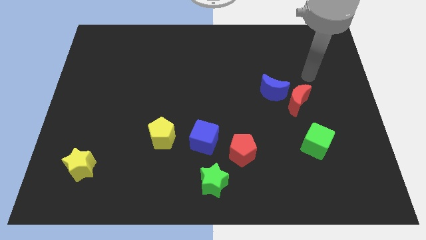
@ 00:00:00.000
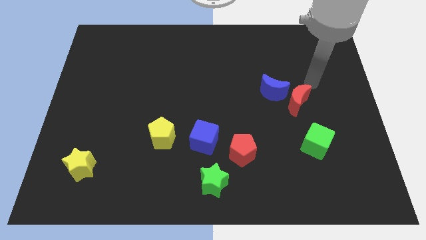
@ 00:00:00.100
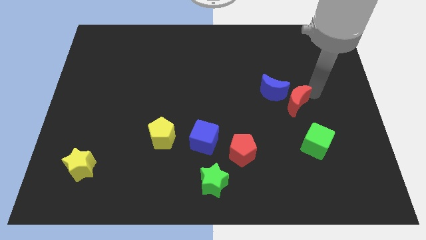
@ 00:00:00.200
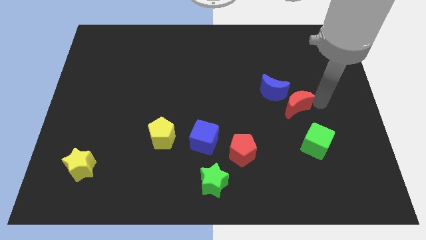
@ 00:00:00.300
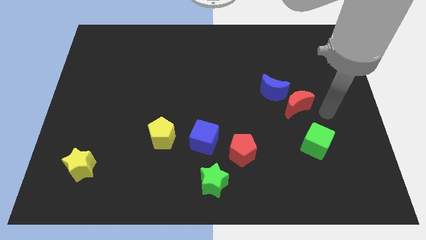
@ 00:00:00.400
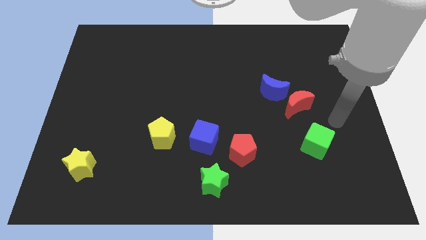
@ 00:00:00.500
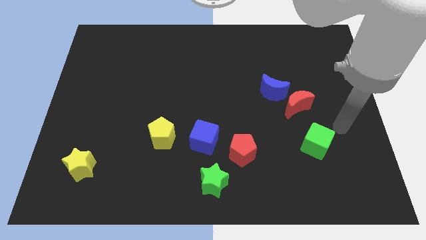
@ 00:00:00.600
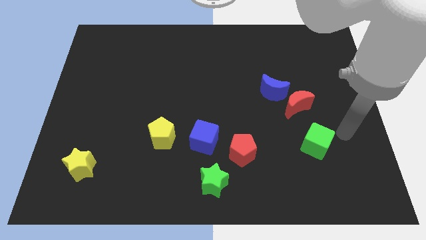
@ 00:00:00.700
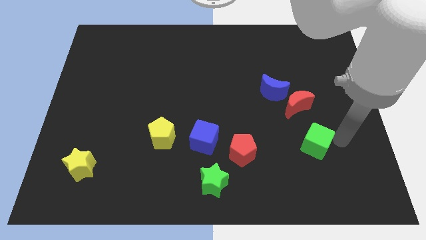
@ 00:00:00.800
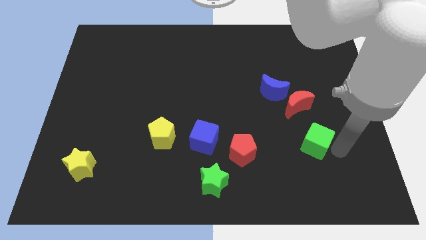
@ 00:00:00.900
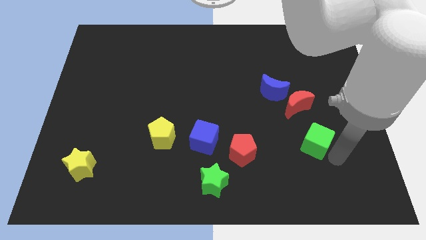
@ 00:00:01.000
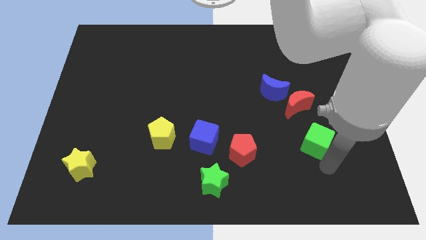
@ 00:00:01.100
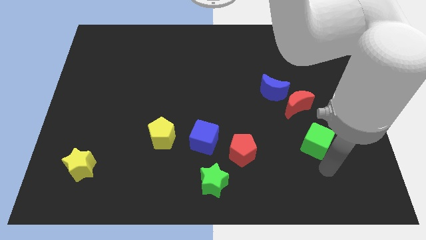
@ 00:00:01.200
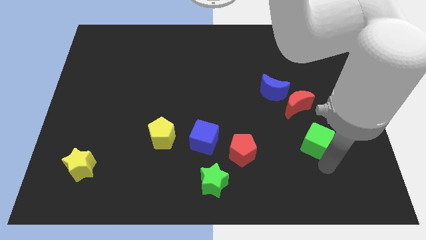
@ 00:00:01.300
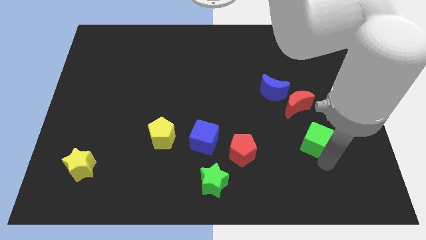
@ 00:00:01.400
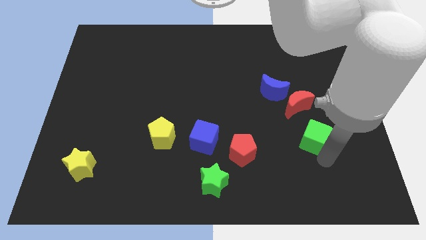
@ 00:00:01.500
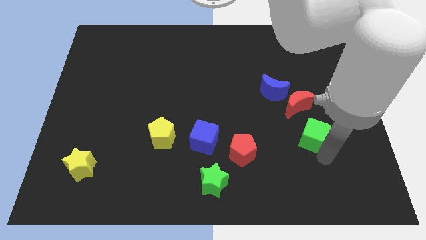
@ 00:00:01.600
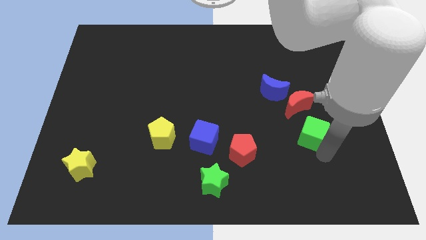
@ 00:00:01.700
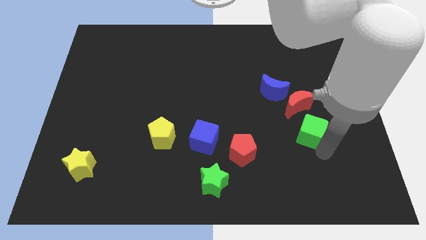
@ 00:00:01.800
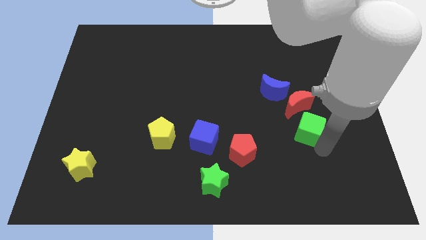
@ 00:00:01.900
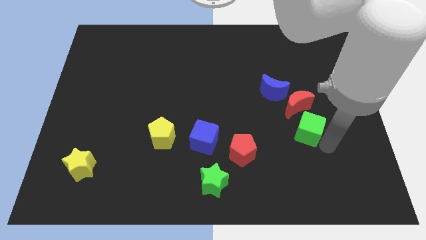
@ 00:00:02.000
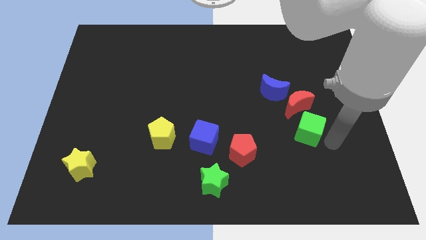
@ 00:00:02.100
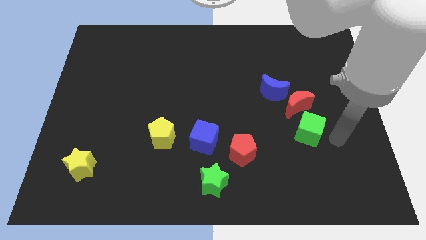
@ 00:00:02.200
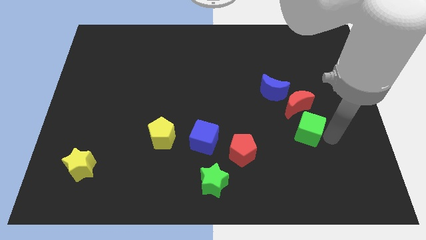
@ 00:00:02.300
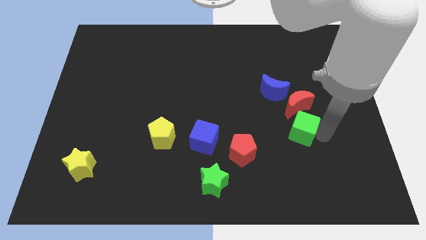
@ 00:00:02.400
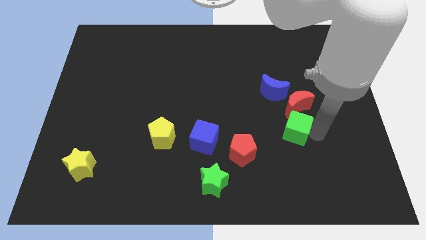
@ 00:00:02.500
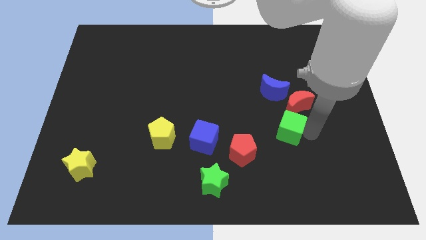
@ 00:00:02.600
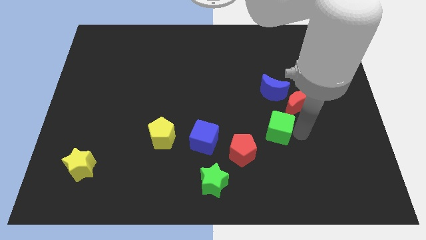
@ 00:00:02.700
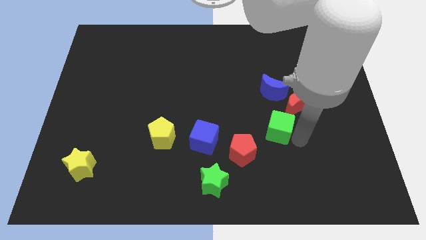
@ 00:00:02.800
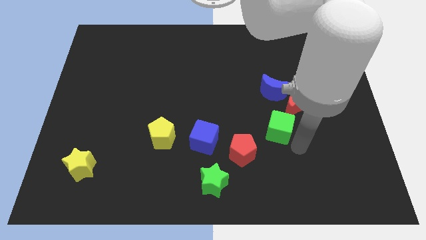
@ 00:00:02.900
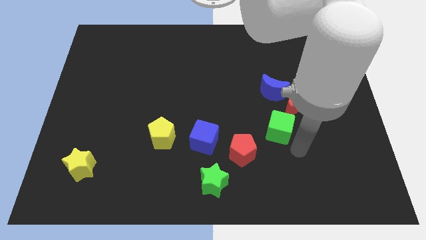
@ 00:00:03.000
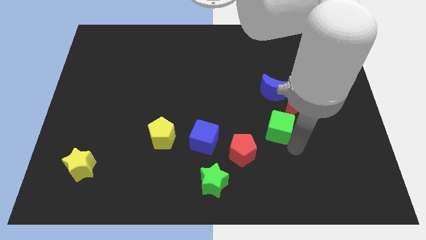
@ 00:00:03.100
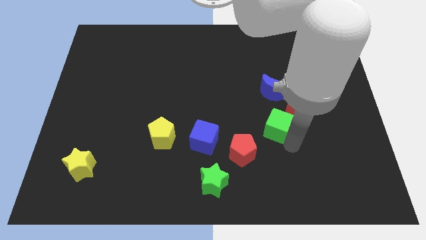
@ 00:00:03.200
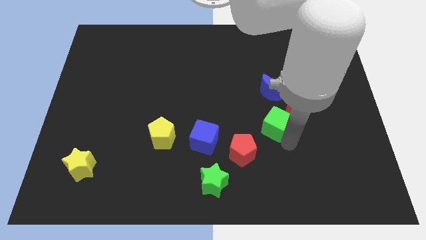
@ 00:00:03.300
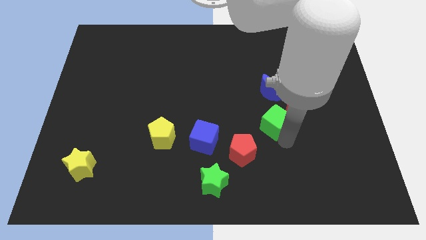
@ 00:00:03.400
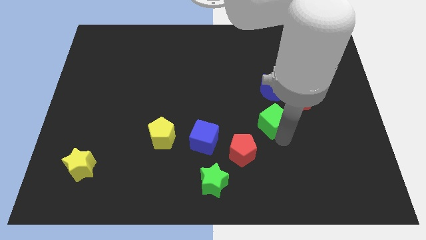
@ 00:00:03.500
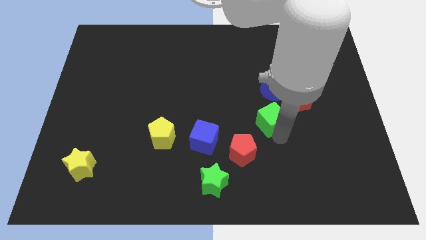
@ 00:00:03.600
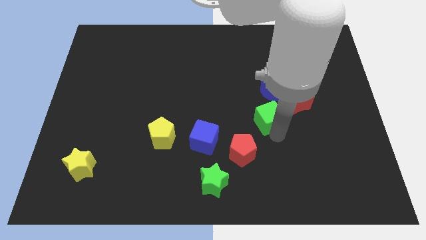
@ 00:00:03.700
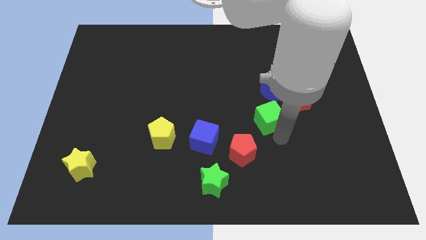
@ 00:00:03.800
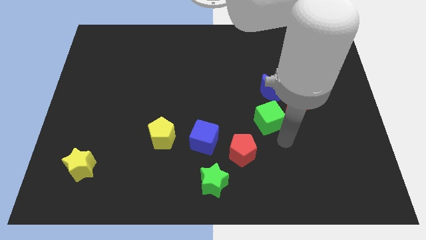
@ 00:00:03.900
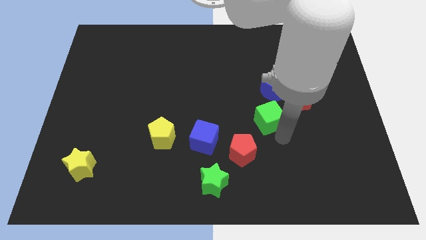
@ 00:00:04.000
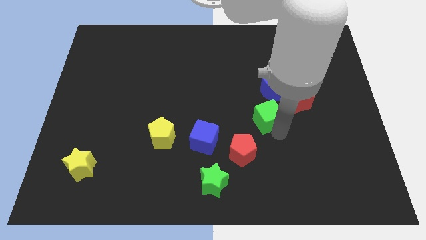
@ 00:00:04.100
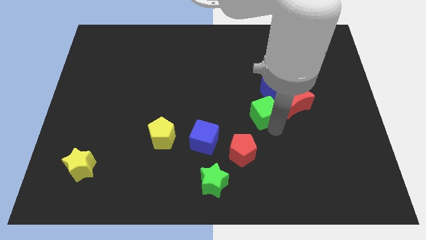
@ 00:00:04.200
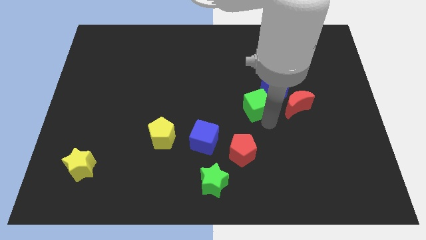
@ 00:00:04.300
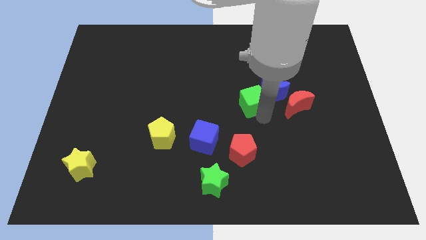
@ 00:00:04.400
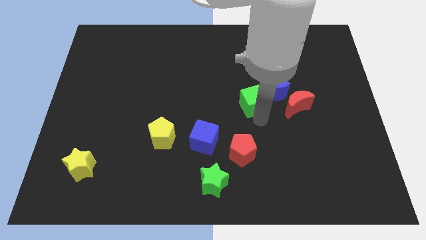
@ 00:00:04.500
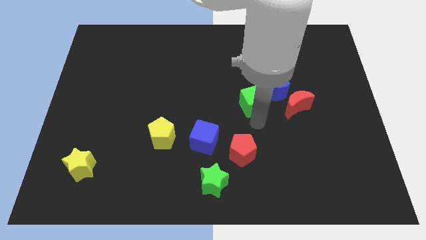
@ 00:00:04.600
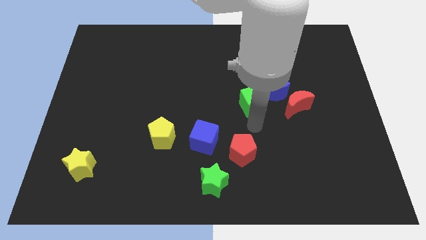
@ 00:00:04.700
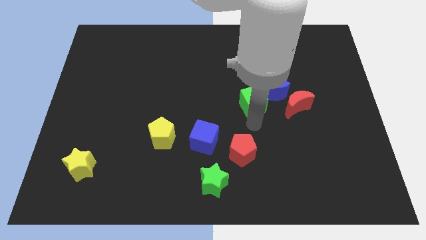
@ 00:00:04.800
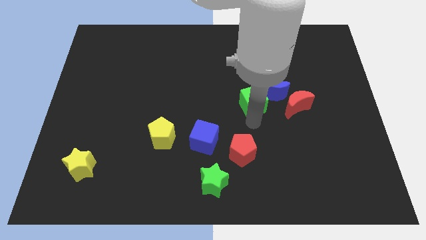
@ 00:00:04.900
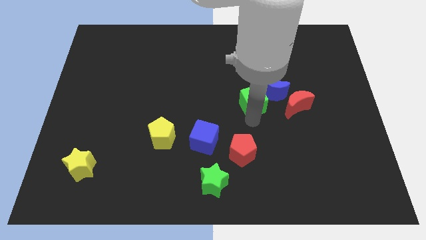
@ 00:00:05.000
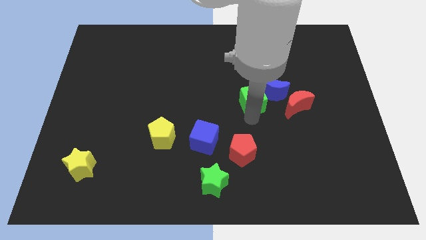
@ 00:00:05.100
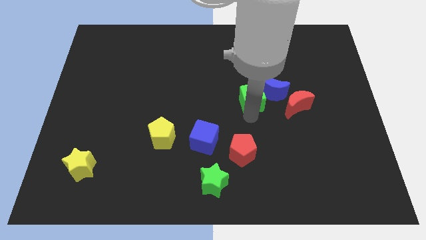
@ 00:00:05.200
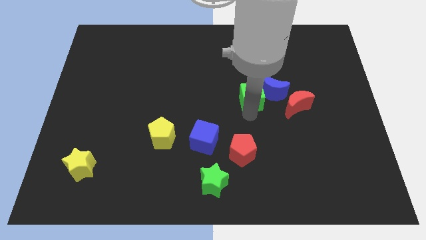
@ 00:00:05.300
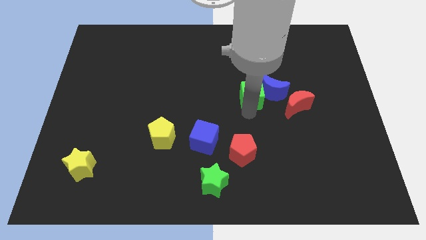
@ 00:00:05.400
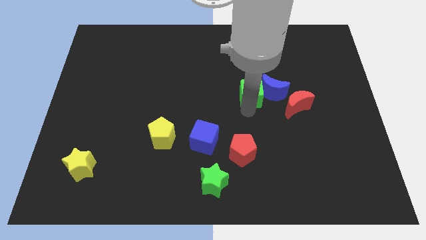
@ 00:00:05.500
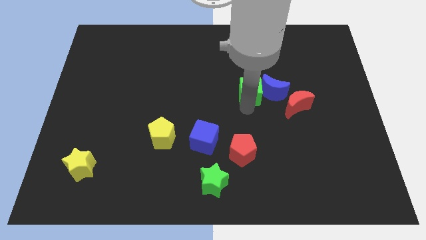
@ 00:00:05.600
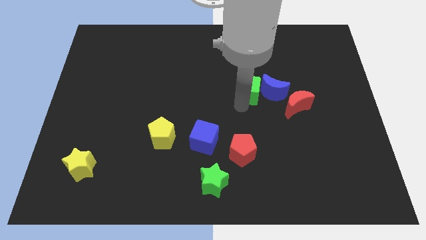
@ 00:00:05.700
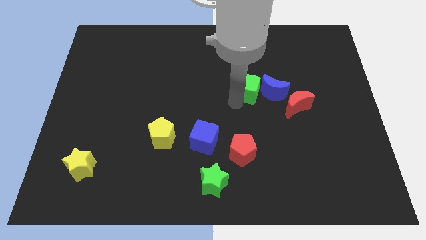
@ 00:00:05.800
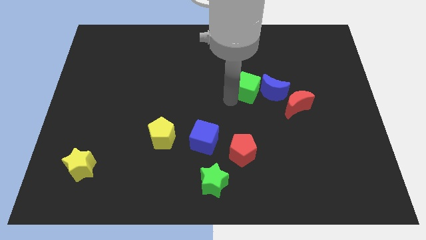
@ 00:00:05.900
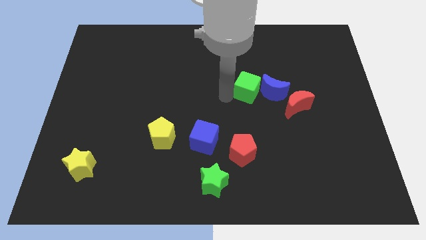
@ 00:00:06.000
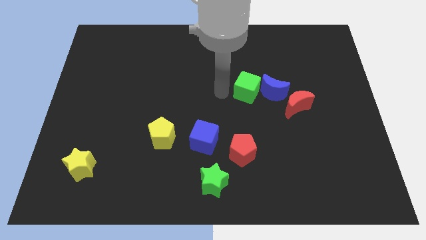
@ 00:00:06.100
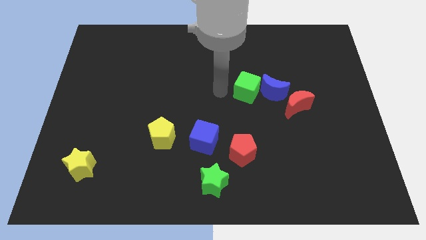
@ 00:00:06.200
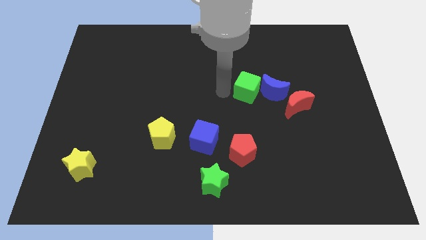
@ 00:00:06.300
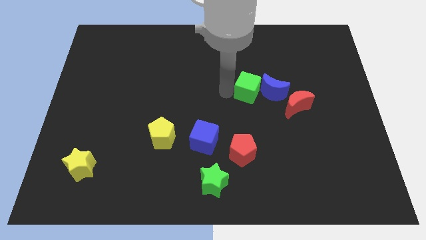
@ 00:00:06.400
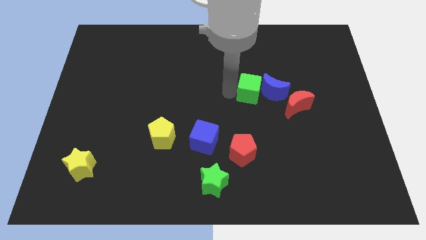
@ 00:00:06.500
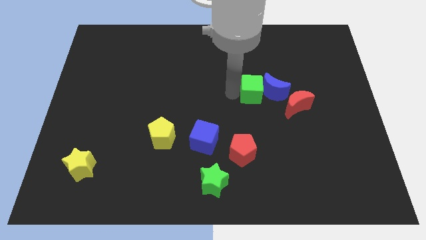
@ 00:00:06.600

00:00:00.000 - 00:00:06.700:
move the green cube to the top left of the red moon

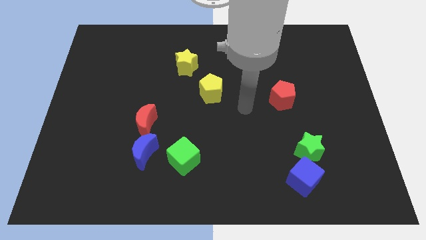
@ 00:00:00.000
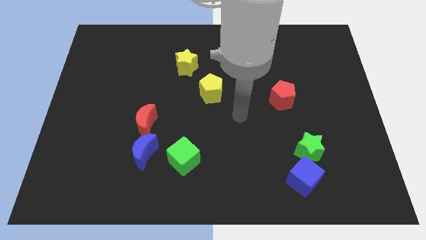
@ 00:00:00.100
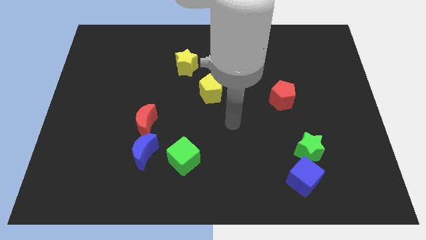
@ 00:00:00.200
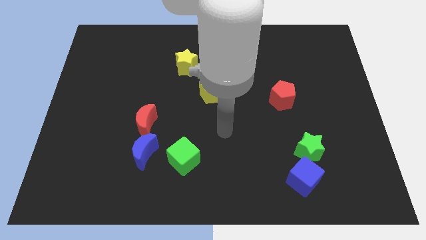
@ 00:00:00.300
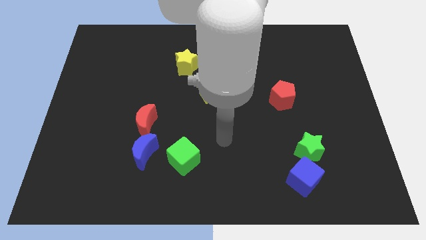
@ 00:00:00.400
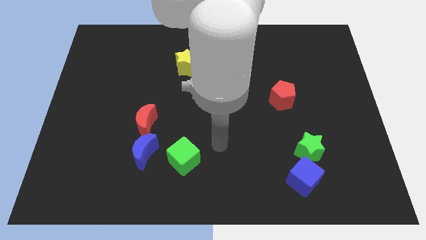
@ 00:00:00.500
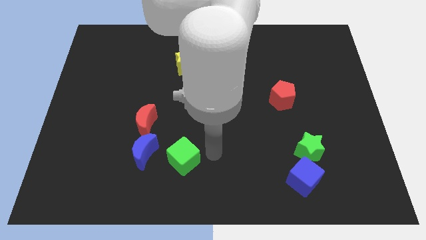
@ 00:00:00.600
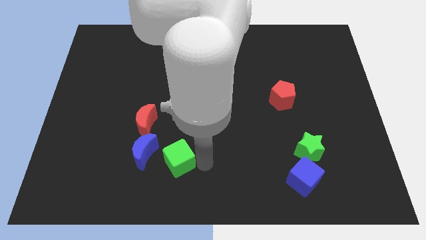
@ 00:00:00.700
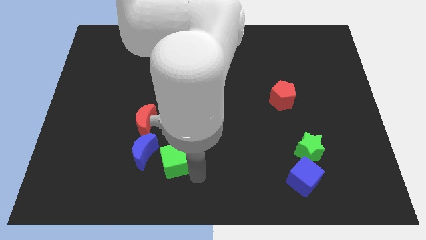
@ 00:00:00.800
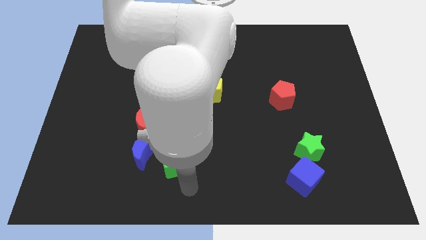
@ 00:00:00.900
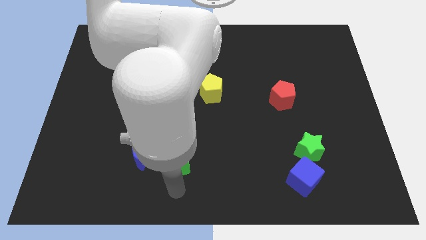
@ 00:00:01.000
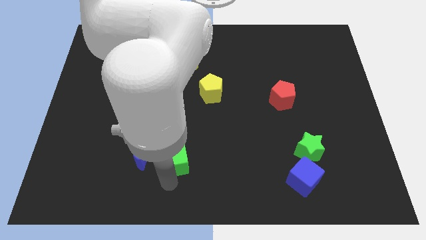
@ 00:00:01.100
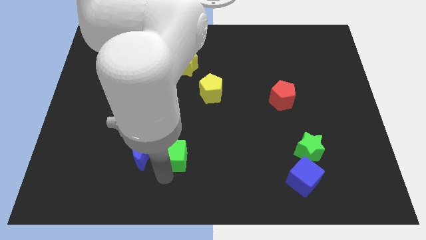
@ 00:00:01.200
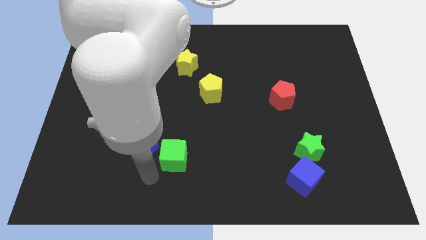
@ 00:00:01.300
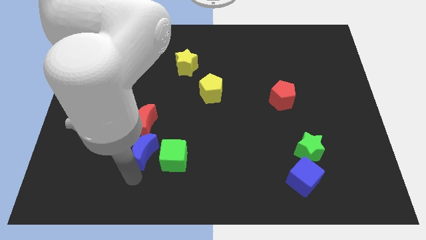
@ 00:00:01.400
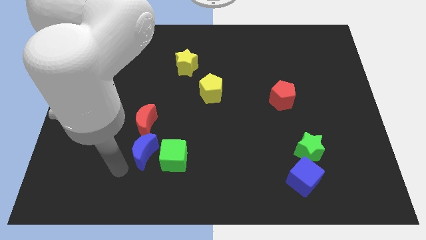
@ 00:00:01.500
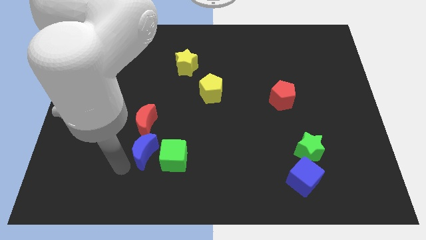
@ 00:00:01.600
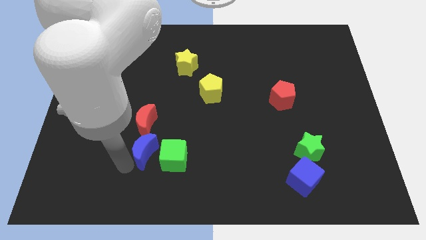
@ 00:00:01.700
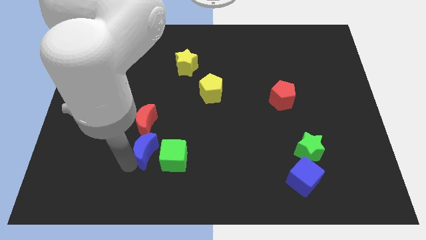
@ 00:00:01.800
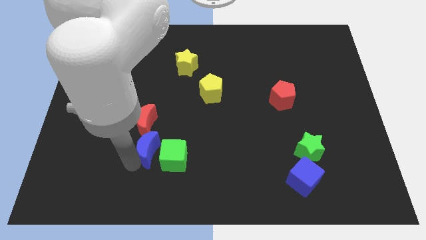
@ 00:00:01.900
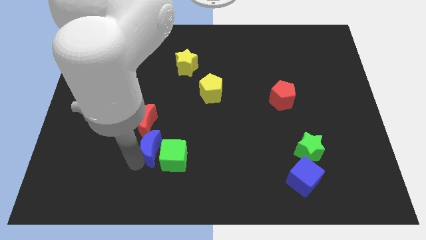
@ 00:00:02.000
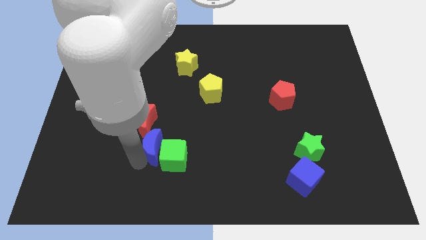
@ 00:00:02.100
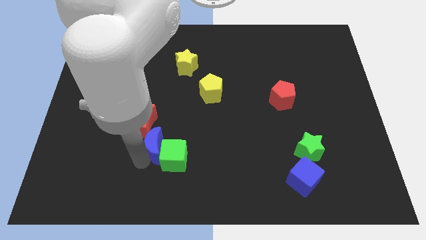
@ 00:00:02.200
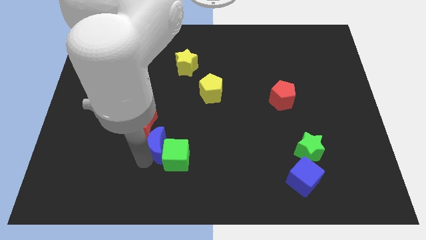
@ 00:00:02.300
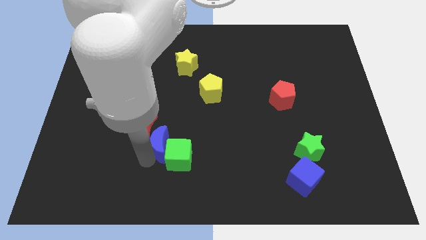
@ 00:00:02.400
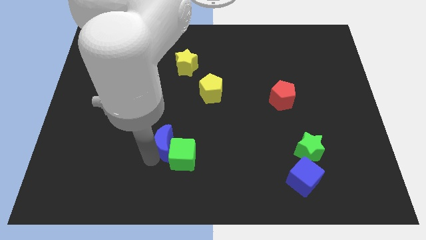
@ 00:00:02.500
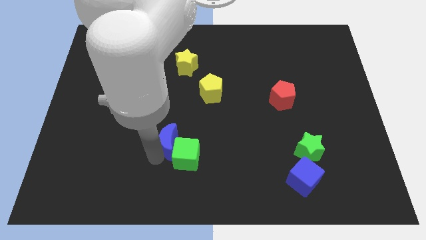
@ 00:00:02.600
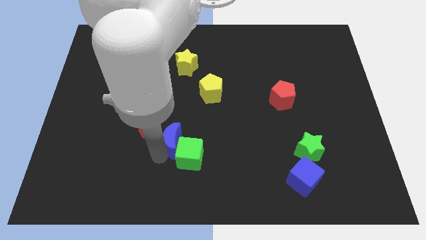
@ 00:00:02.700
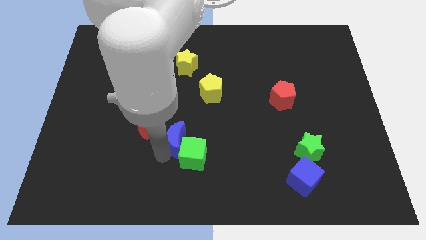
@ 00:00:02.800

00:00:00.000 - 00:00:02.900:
slide the blue moon right of the red moon
